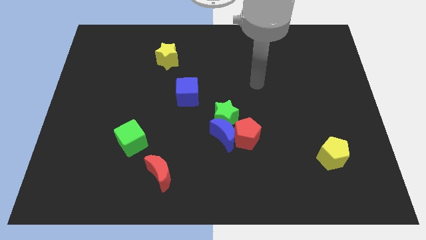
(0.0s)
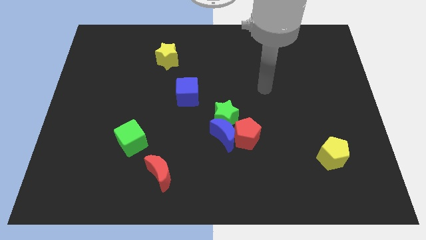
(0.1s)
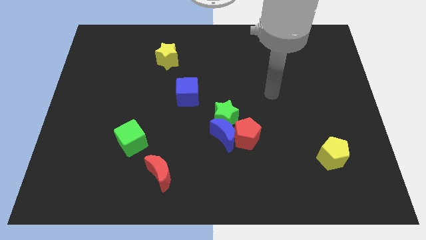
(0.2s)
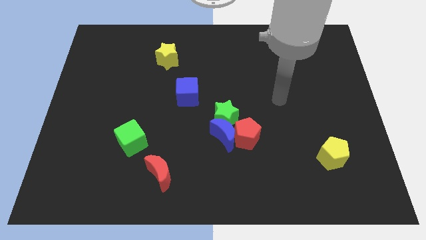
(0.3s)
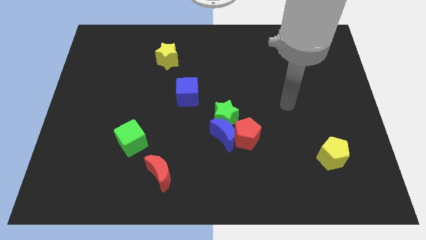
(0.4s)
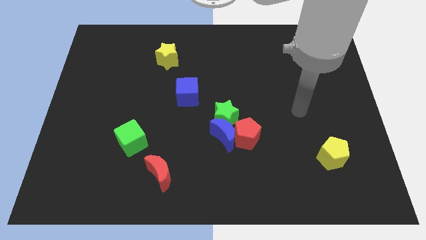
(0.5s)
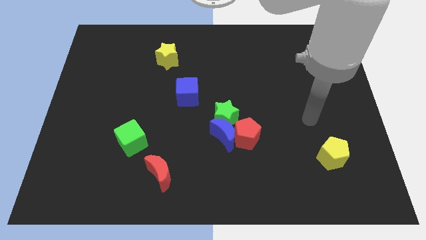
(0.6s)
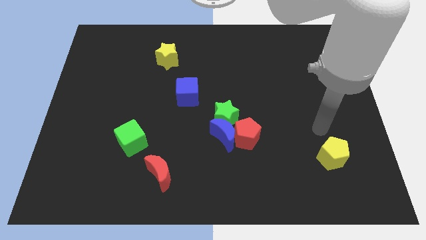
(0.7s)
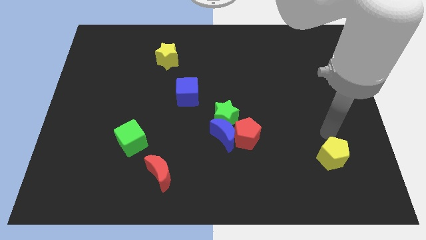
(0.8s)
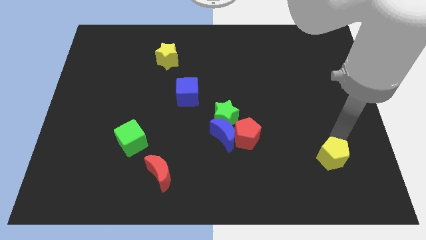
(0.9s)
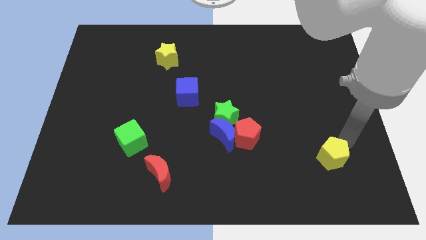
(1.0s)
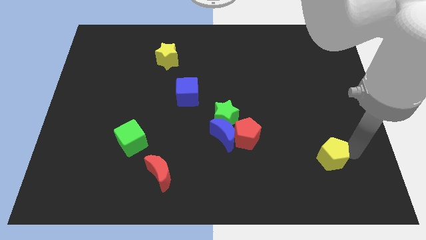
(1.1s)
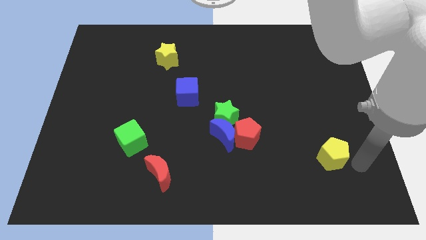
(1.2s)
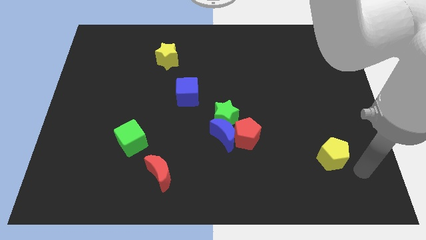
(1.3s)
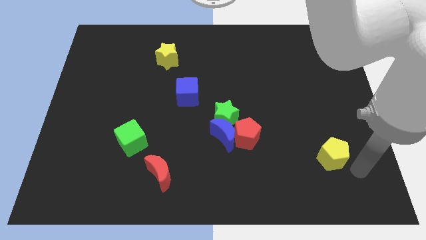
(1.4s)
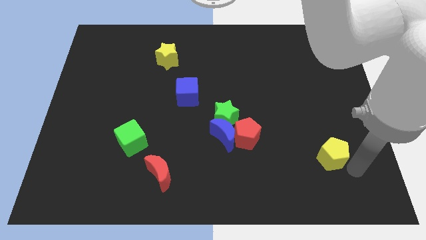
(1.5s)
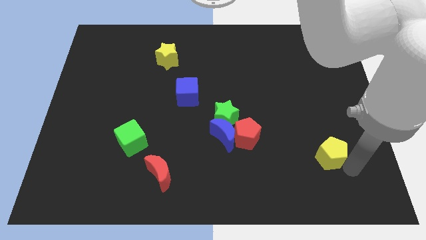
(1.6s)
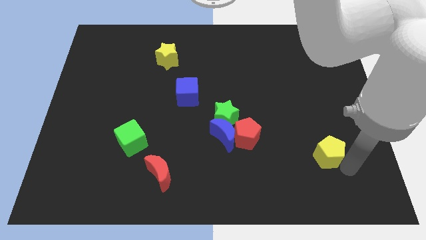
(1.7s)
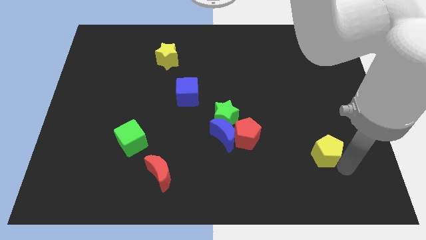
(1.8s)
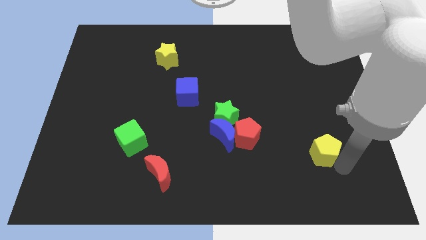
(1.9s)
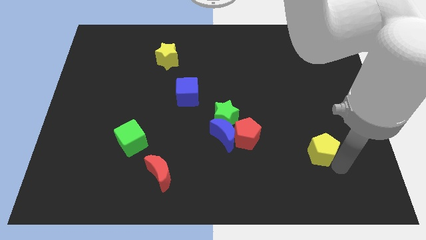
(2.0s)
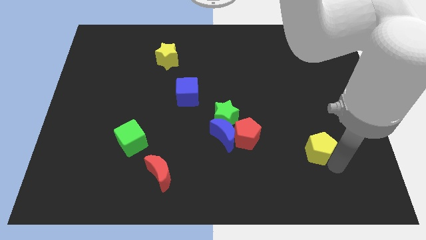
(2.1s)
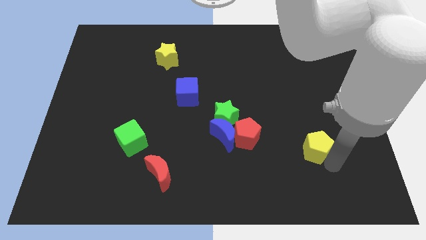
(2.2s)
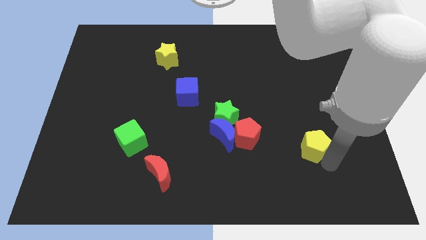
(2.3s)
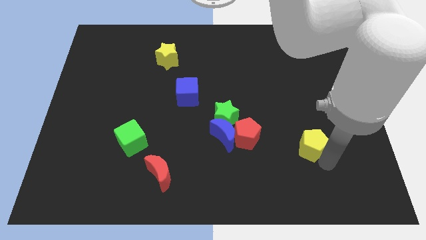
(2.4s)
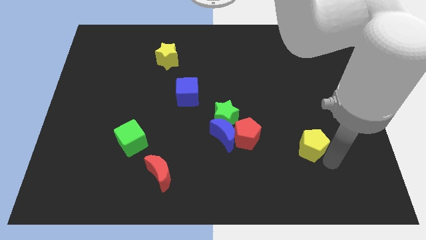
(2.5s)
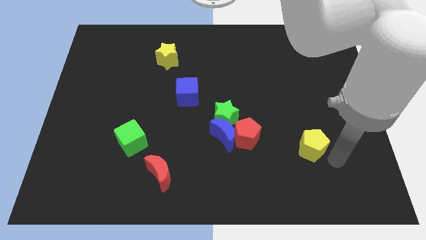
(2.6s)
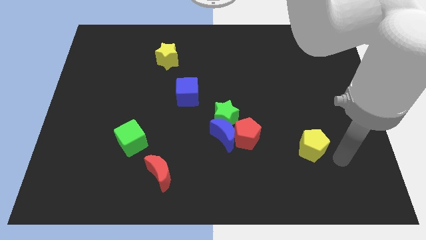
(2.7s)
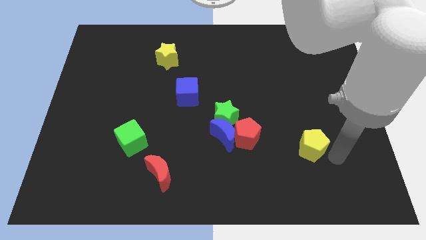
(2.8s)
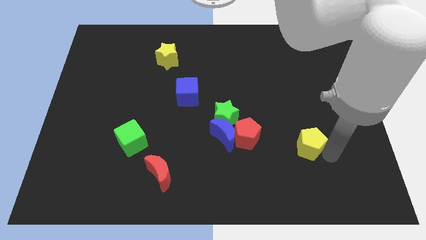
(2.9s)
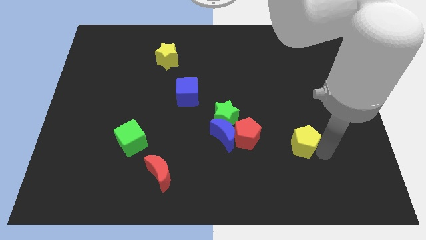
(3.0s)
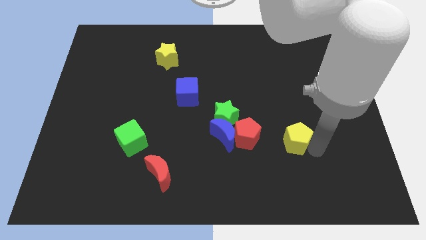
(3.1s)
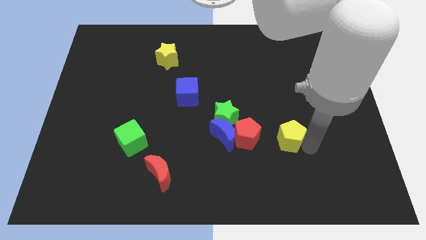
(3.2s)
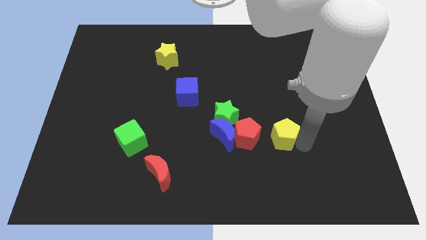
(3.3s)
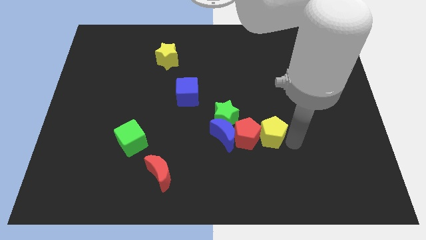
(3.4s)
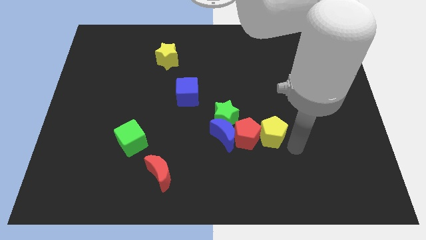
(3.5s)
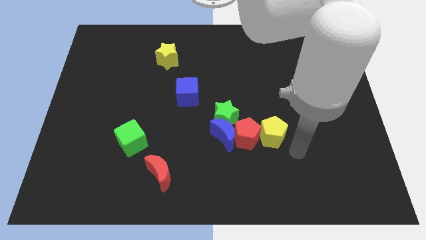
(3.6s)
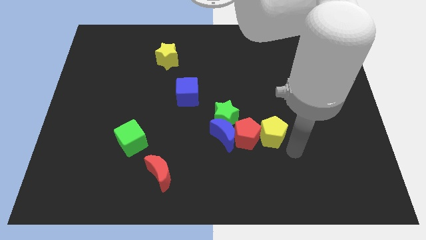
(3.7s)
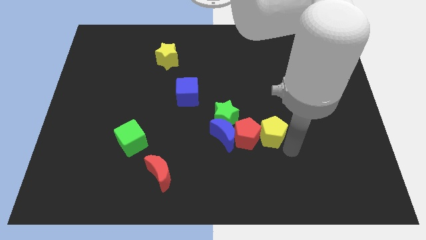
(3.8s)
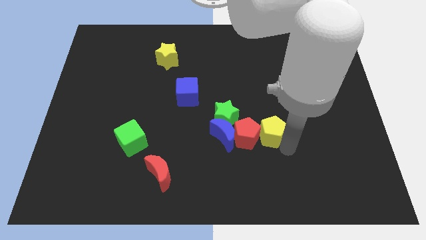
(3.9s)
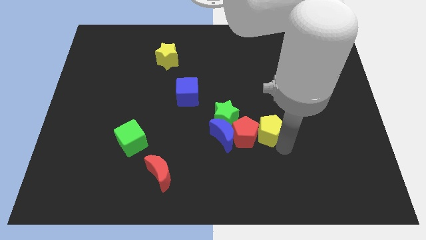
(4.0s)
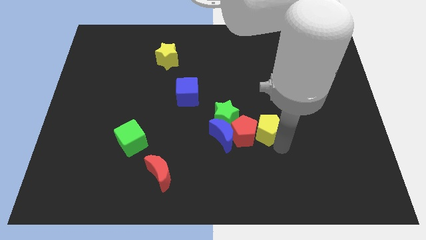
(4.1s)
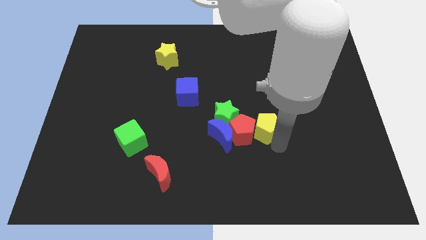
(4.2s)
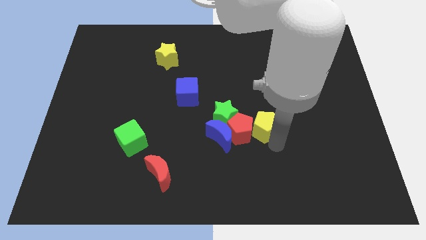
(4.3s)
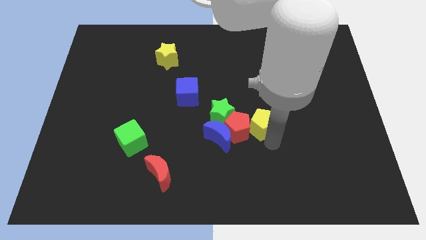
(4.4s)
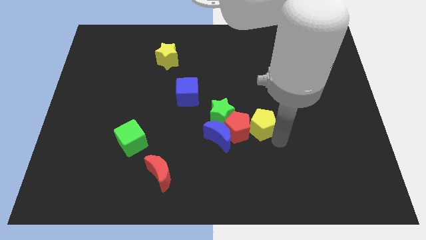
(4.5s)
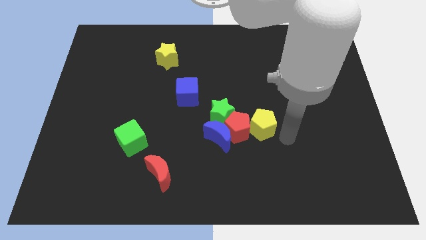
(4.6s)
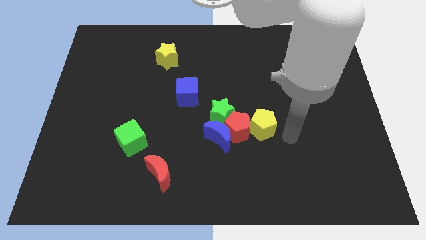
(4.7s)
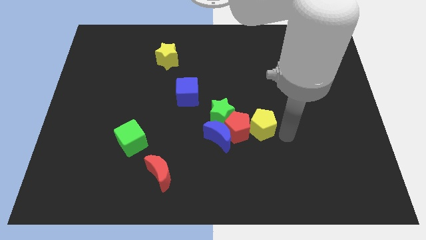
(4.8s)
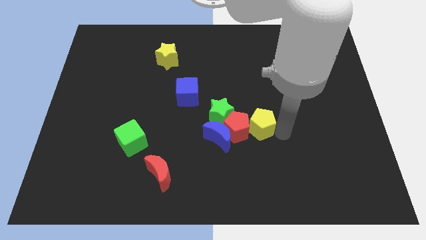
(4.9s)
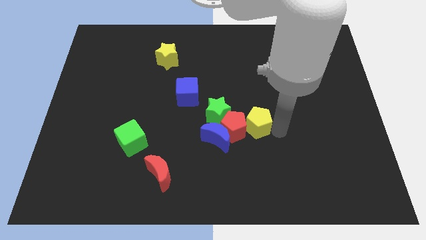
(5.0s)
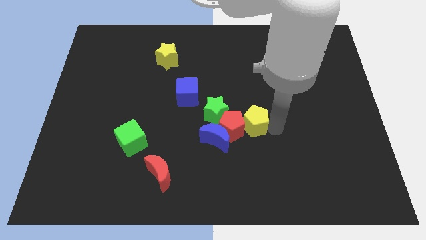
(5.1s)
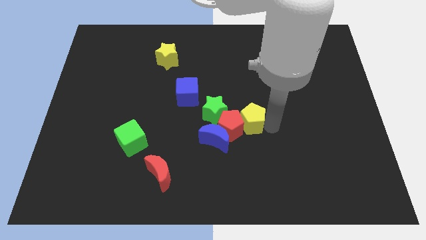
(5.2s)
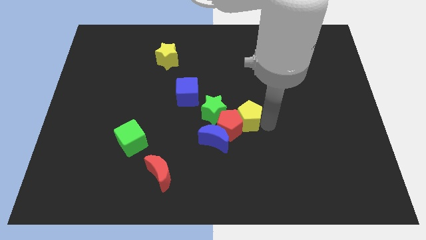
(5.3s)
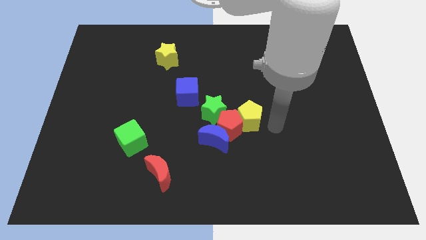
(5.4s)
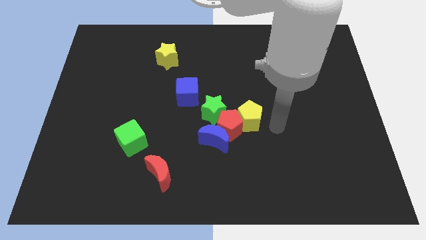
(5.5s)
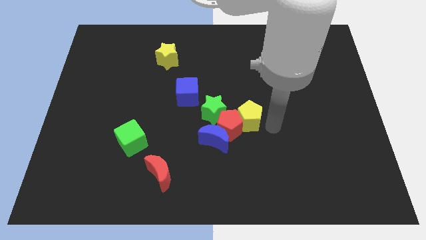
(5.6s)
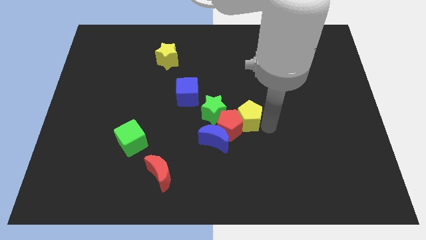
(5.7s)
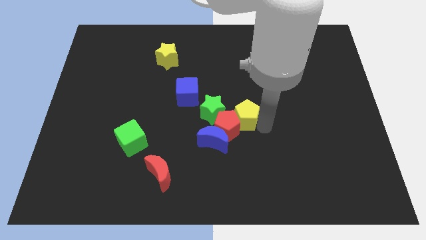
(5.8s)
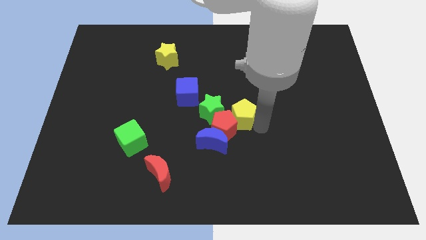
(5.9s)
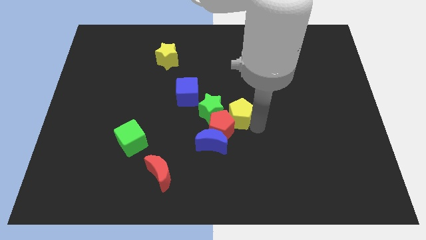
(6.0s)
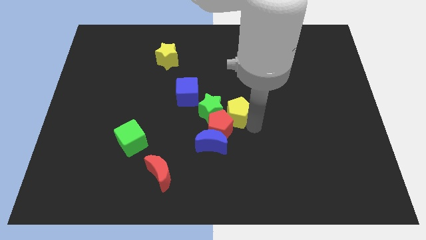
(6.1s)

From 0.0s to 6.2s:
push the yellow pentagon towards the green star

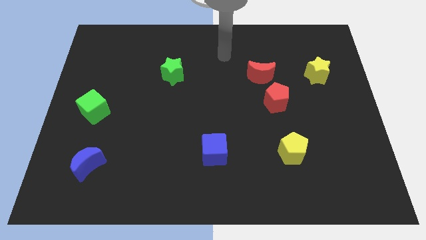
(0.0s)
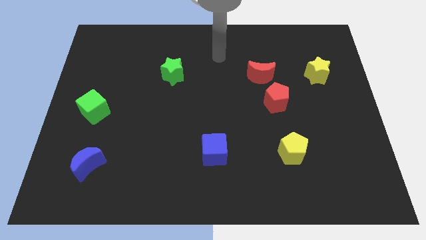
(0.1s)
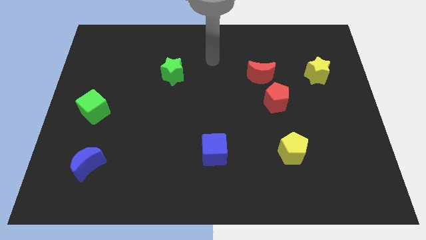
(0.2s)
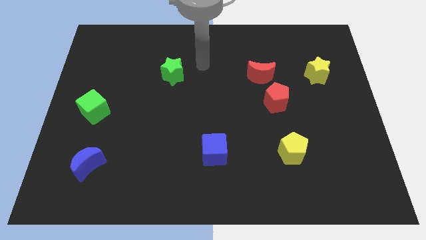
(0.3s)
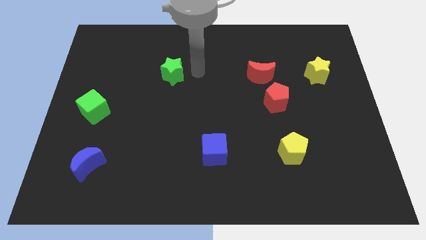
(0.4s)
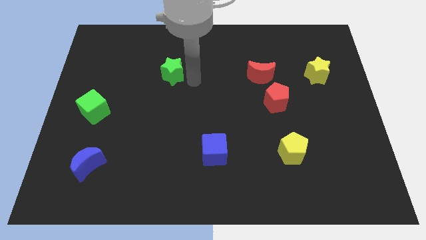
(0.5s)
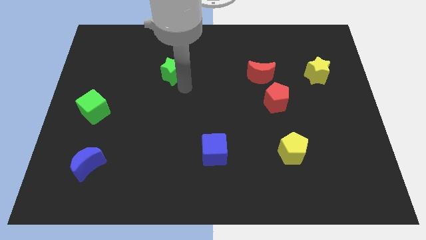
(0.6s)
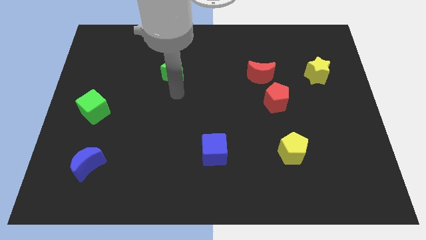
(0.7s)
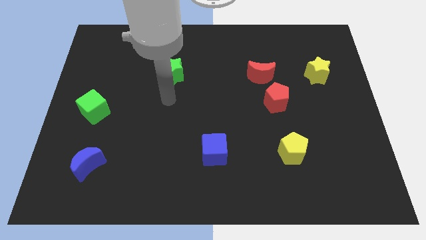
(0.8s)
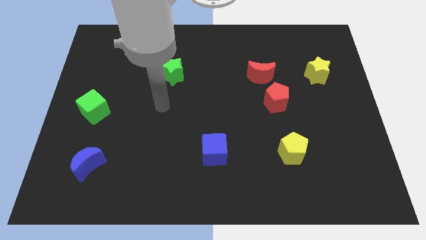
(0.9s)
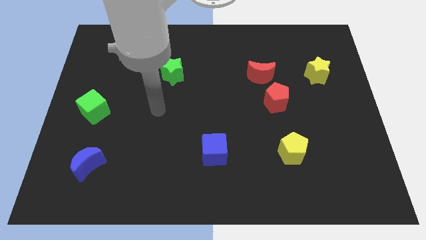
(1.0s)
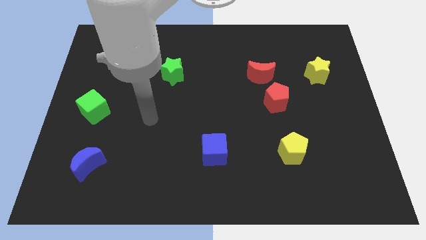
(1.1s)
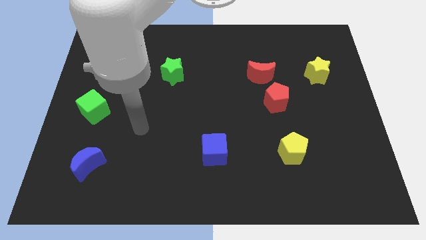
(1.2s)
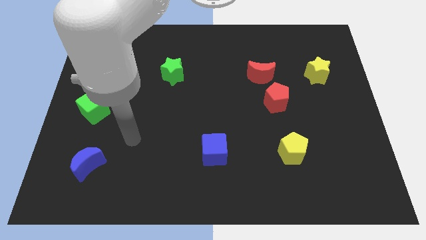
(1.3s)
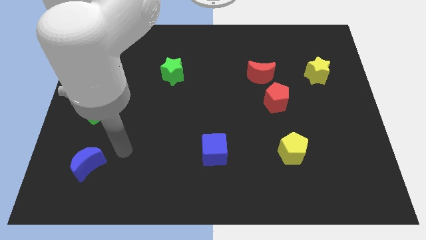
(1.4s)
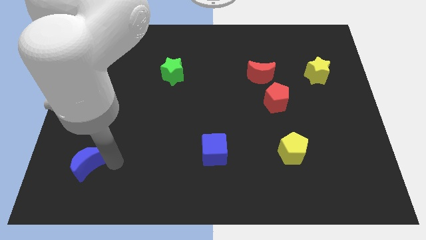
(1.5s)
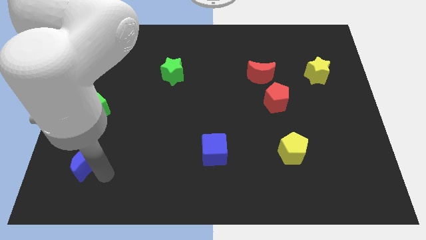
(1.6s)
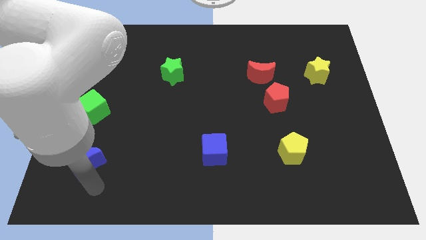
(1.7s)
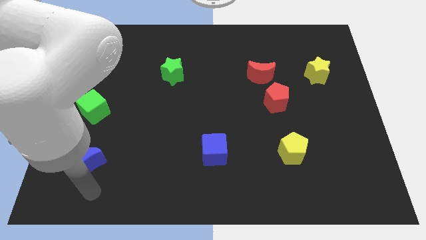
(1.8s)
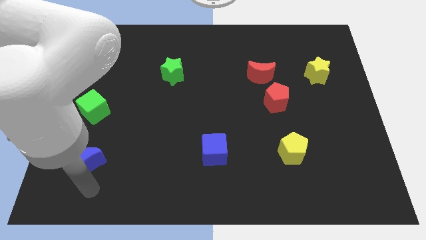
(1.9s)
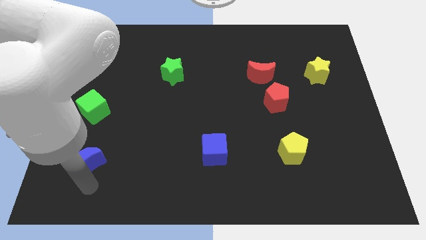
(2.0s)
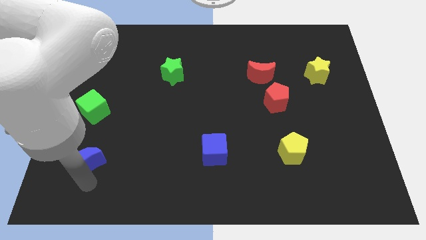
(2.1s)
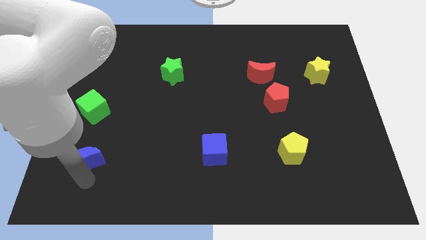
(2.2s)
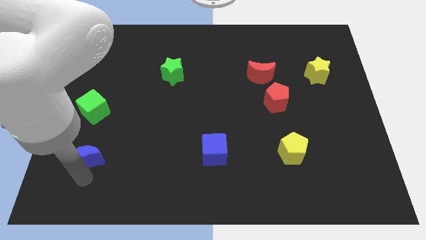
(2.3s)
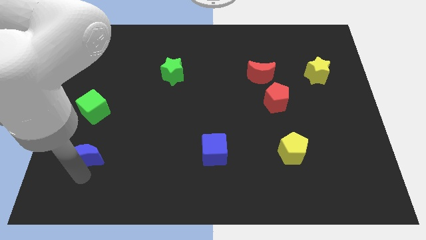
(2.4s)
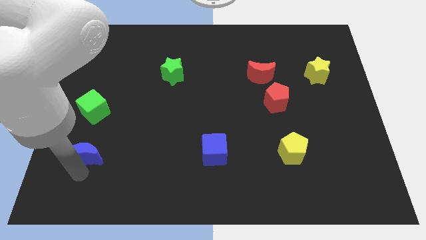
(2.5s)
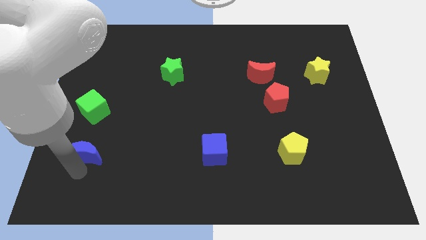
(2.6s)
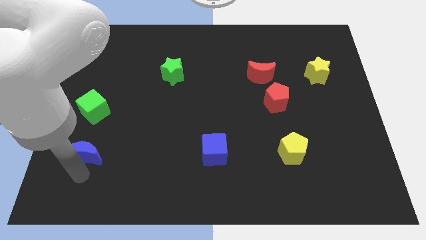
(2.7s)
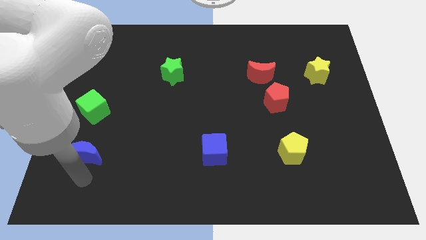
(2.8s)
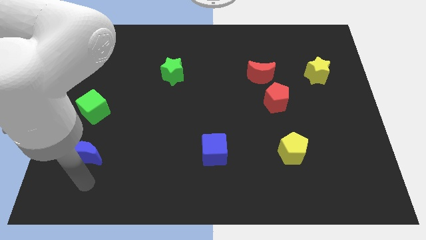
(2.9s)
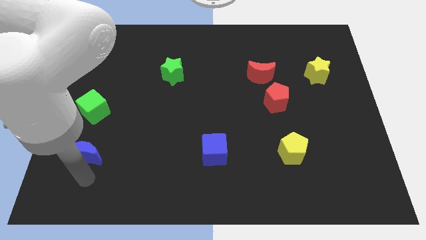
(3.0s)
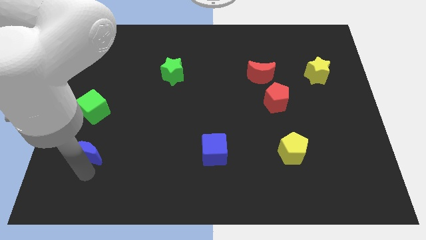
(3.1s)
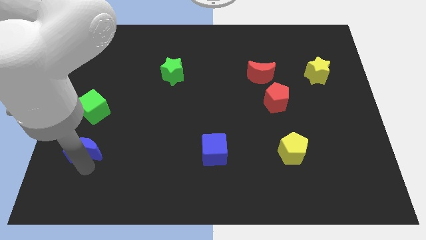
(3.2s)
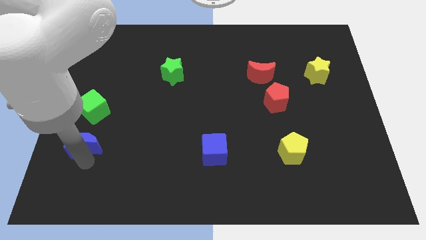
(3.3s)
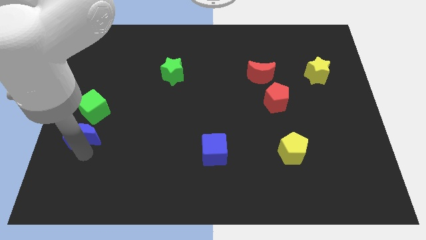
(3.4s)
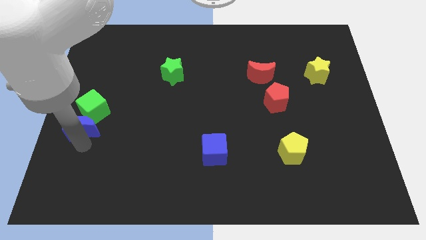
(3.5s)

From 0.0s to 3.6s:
push the blue moon to the green cube
